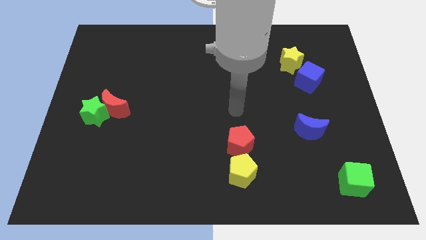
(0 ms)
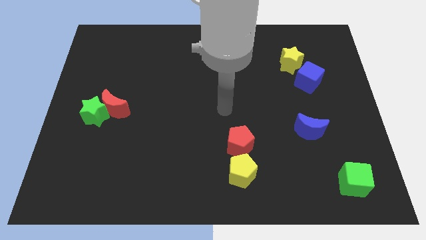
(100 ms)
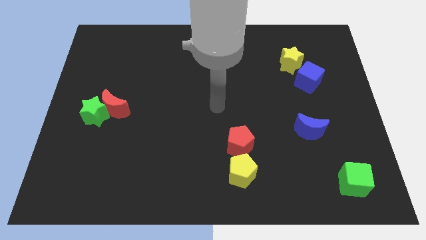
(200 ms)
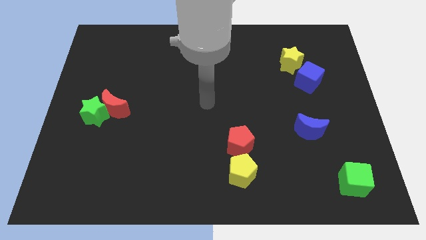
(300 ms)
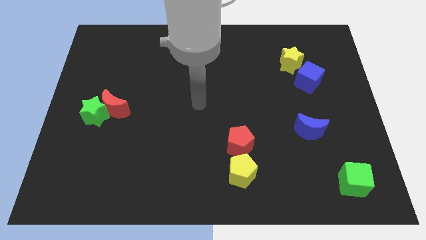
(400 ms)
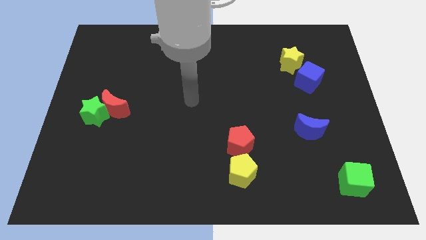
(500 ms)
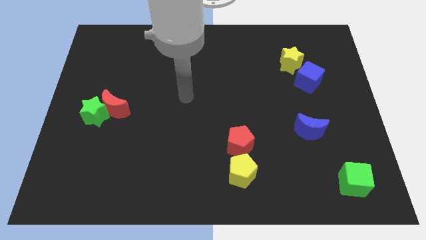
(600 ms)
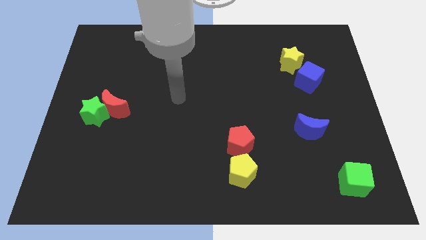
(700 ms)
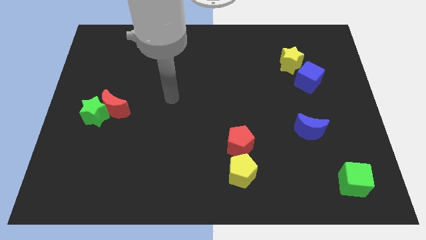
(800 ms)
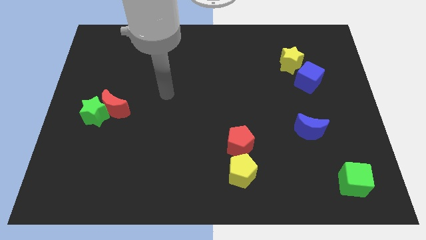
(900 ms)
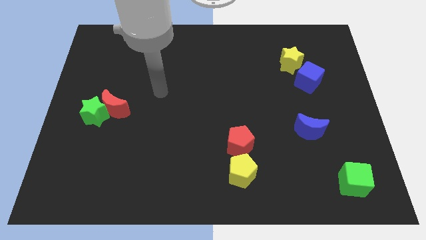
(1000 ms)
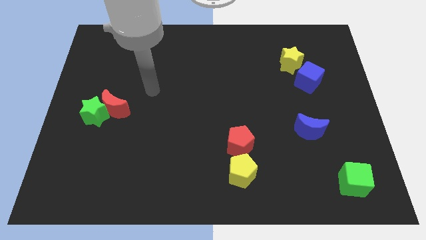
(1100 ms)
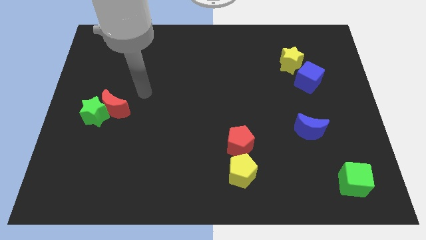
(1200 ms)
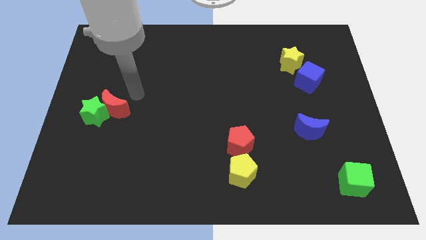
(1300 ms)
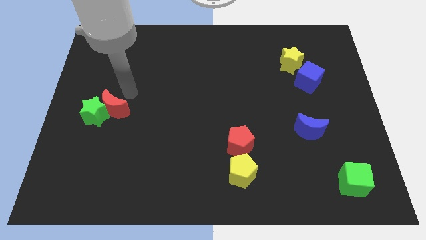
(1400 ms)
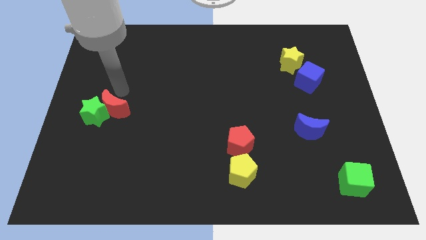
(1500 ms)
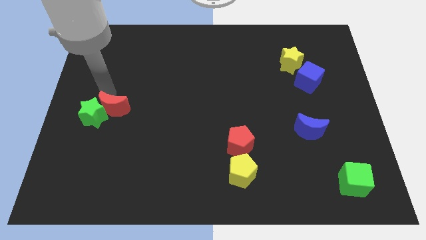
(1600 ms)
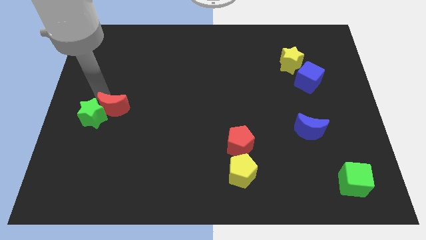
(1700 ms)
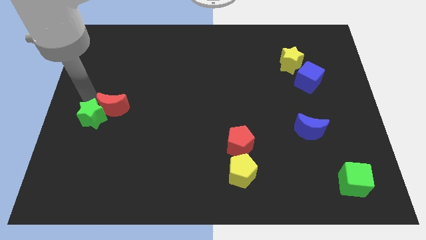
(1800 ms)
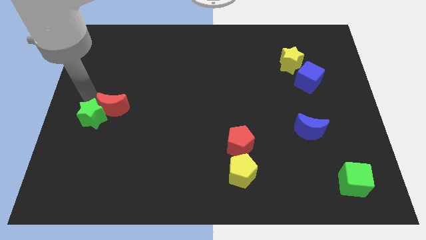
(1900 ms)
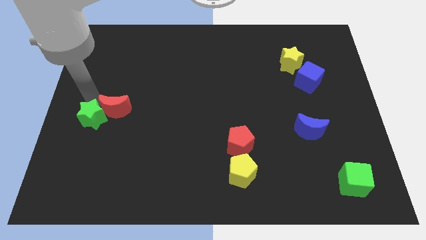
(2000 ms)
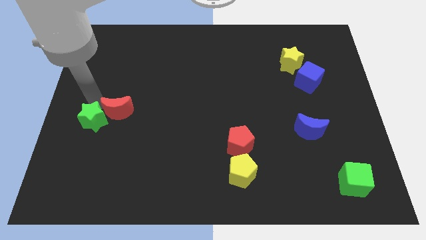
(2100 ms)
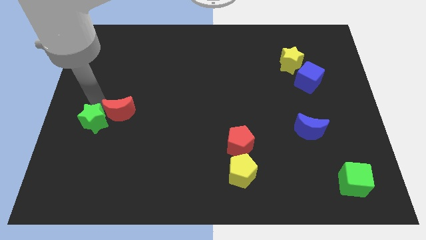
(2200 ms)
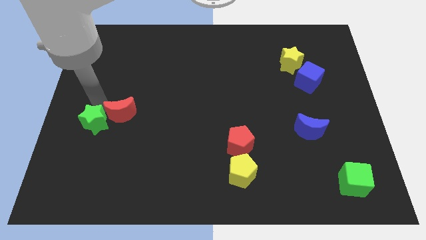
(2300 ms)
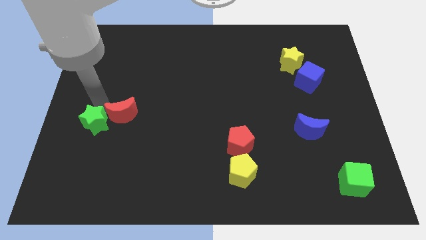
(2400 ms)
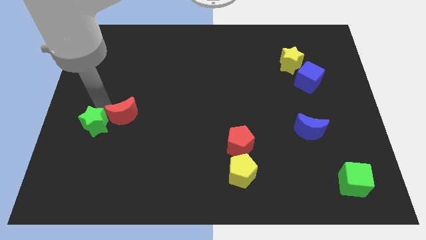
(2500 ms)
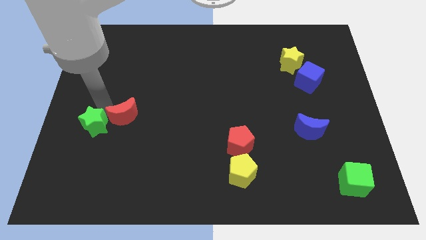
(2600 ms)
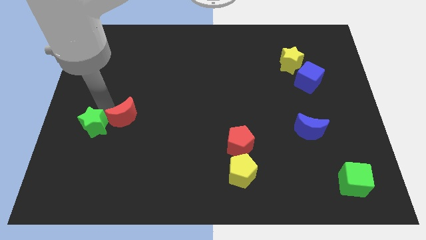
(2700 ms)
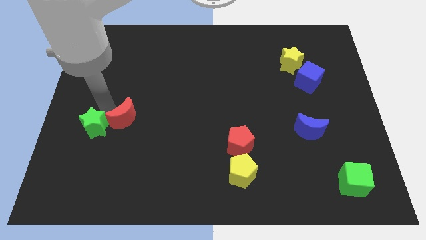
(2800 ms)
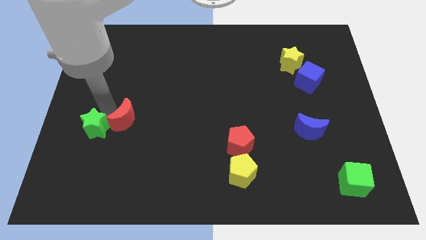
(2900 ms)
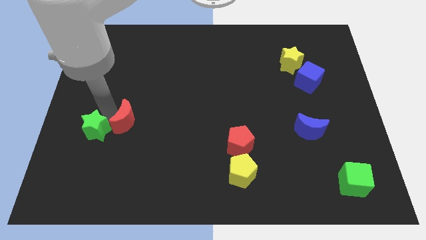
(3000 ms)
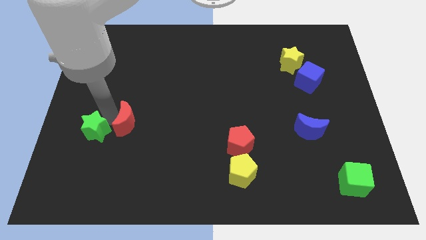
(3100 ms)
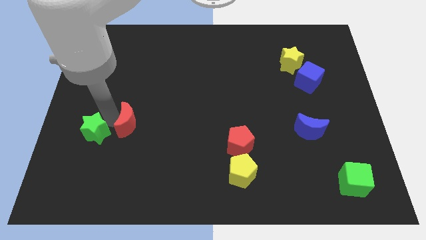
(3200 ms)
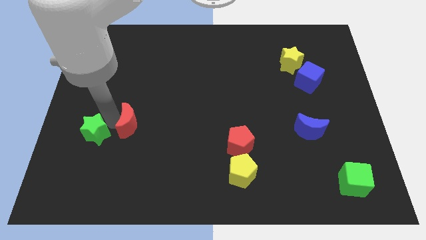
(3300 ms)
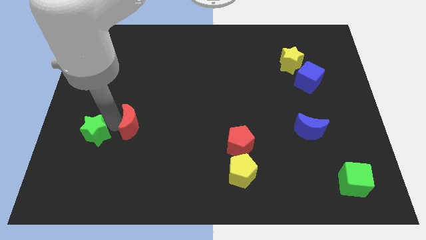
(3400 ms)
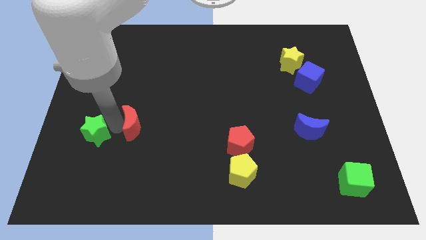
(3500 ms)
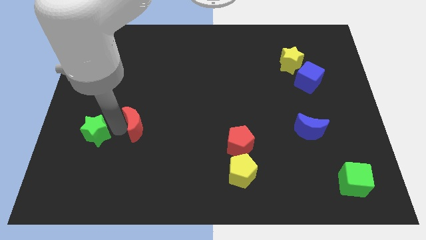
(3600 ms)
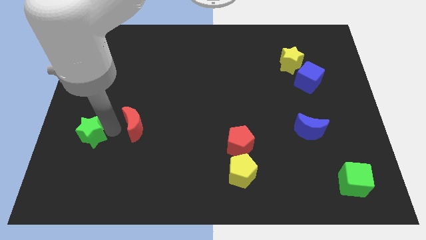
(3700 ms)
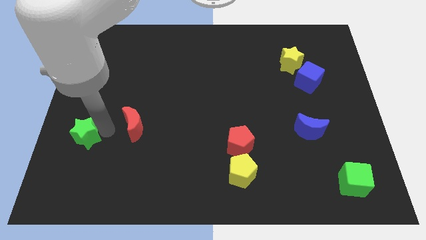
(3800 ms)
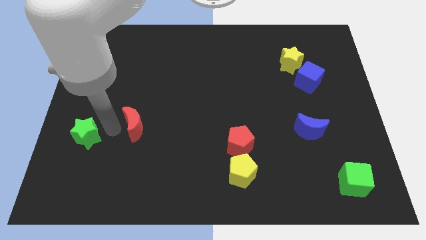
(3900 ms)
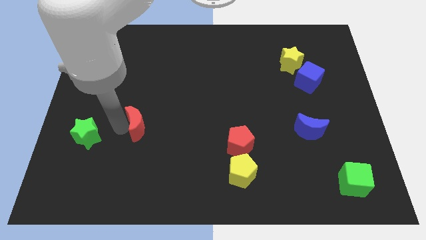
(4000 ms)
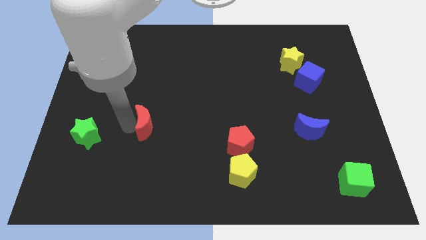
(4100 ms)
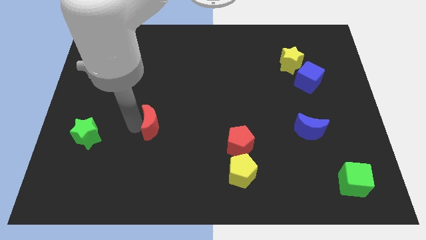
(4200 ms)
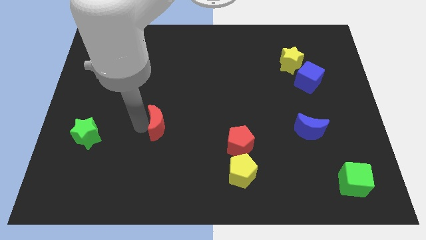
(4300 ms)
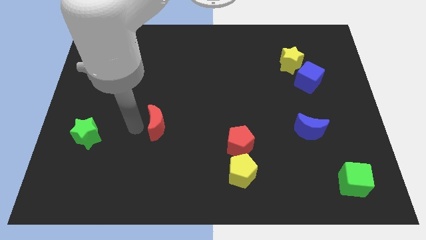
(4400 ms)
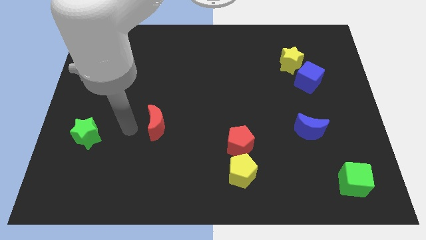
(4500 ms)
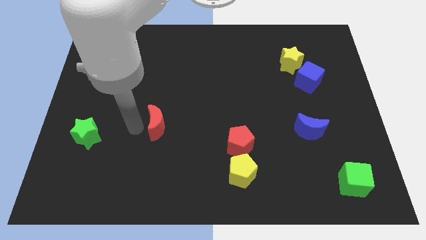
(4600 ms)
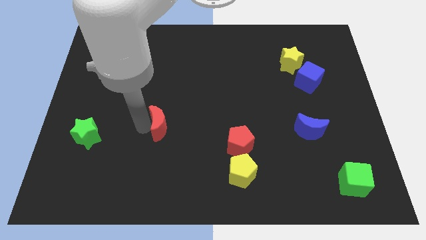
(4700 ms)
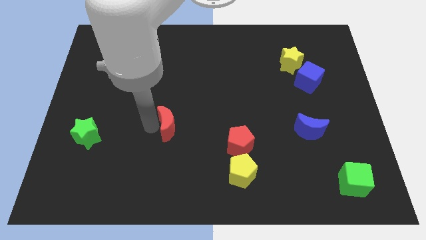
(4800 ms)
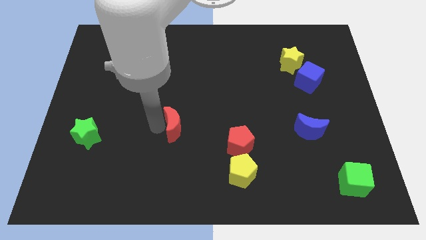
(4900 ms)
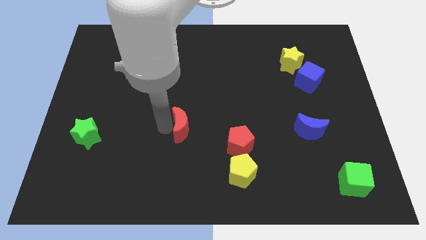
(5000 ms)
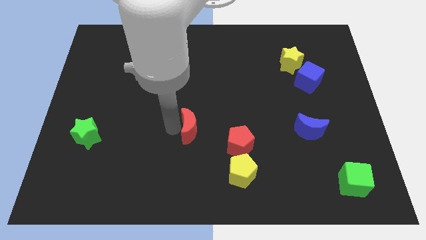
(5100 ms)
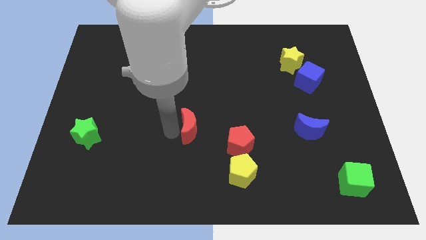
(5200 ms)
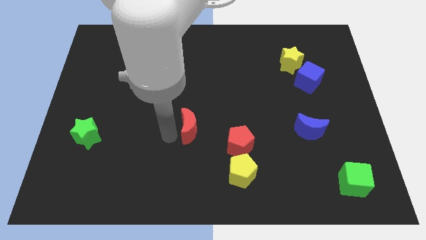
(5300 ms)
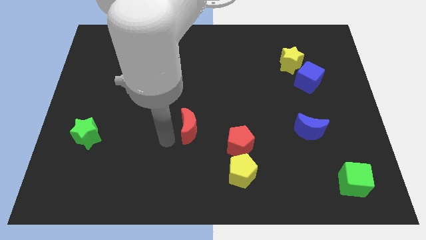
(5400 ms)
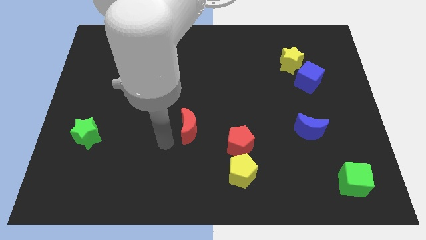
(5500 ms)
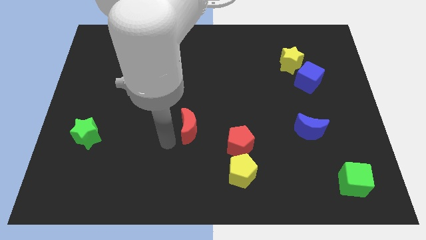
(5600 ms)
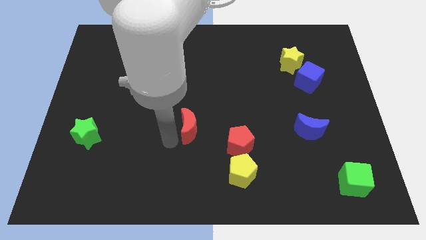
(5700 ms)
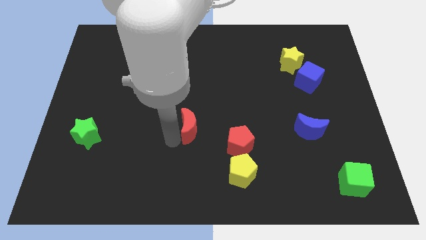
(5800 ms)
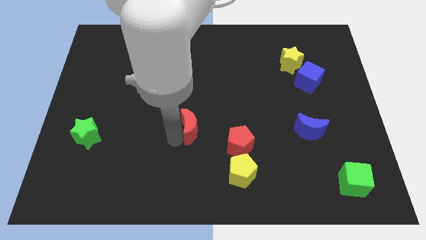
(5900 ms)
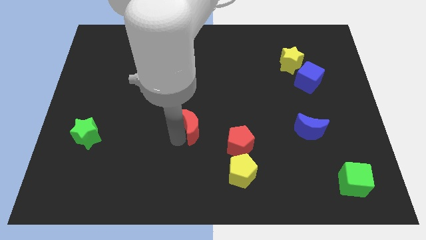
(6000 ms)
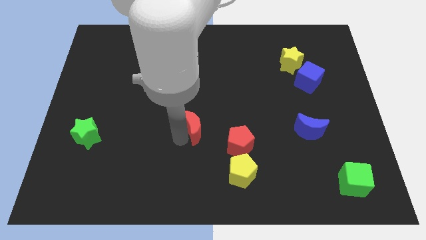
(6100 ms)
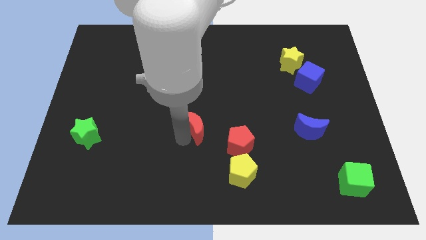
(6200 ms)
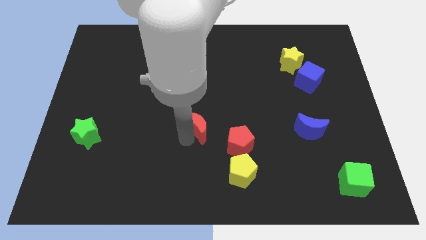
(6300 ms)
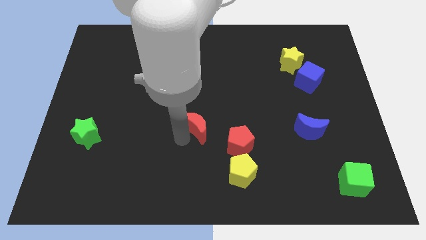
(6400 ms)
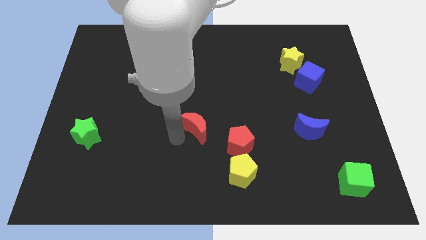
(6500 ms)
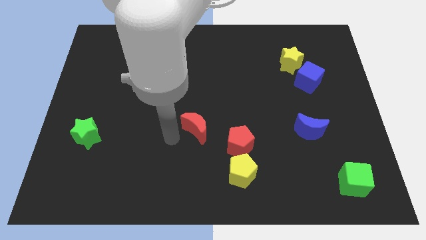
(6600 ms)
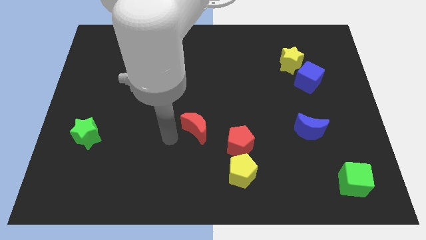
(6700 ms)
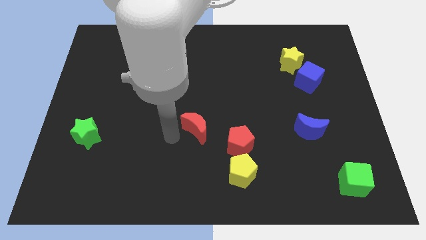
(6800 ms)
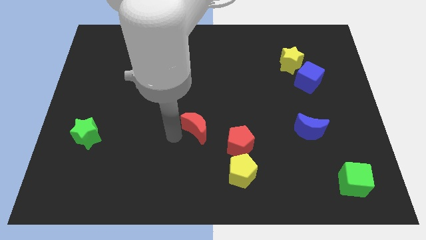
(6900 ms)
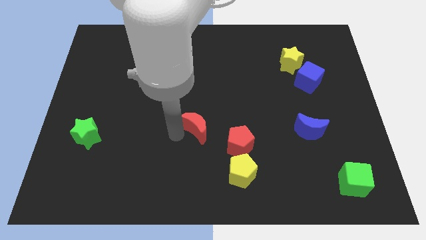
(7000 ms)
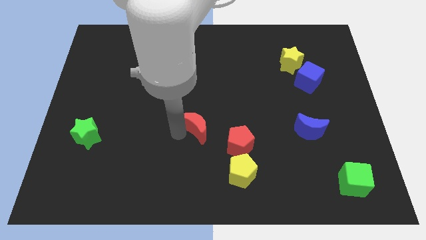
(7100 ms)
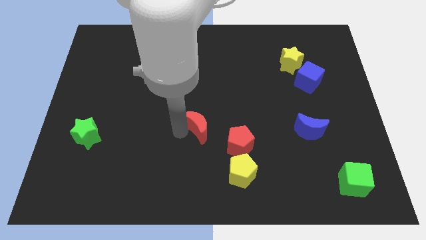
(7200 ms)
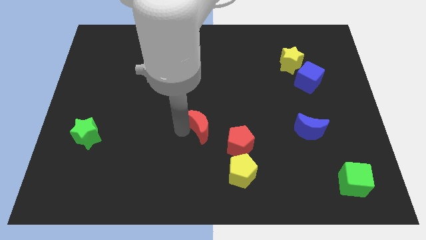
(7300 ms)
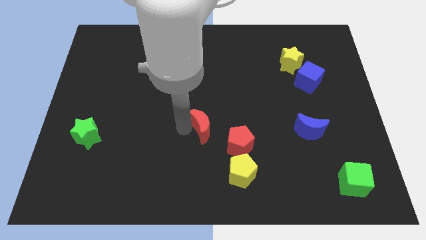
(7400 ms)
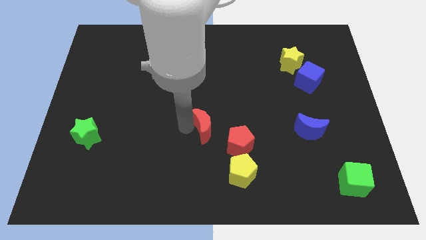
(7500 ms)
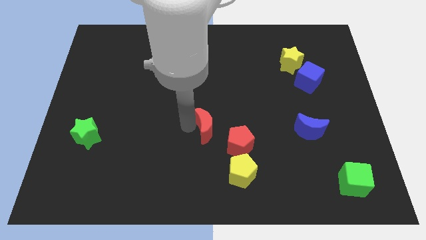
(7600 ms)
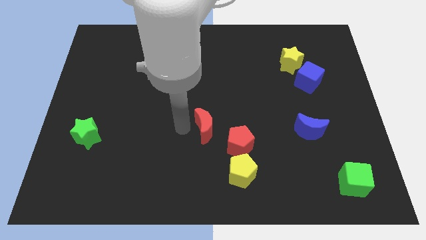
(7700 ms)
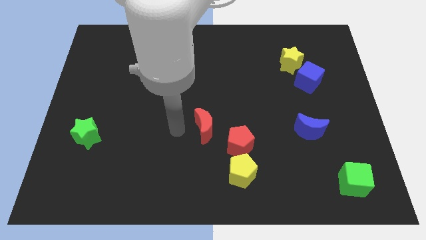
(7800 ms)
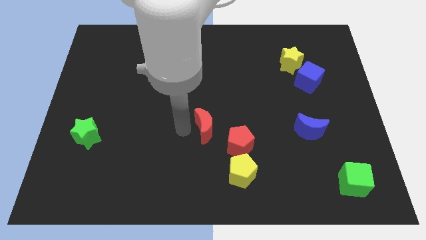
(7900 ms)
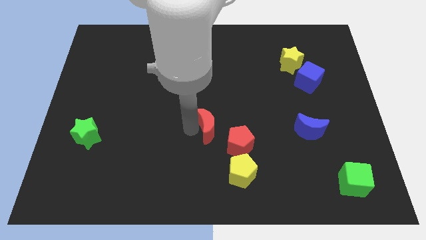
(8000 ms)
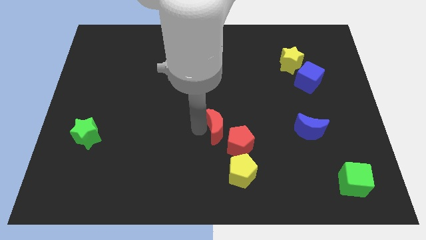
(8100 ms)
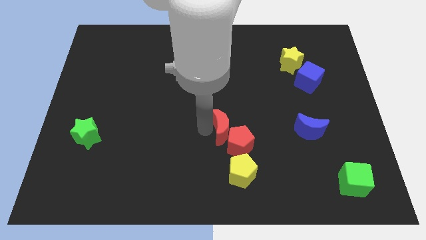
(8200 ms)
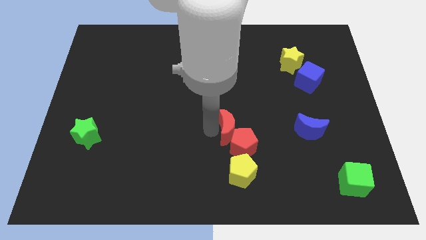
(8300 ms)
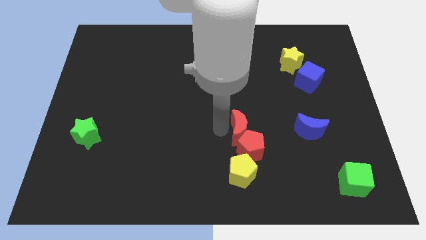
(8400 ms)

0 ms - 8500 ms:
put the red moon to the left side of the blue moon
